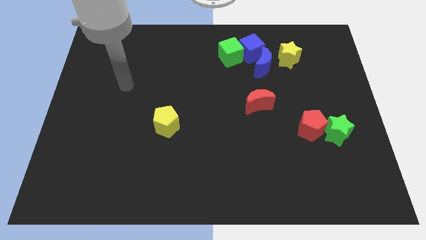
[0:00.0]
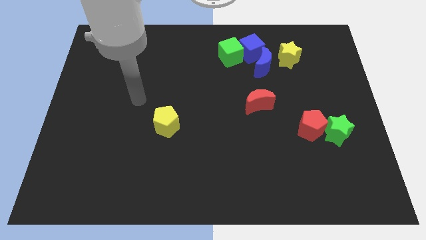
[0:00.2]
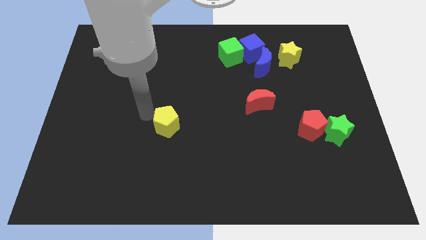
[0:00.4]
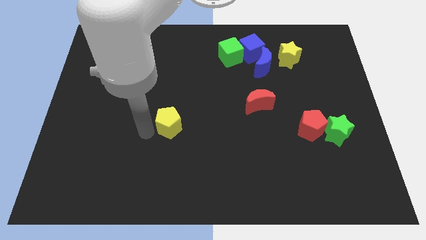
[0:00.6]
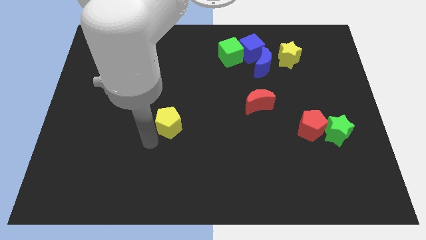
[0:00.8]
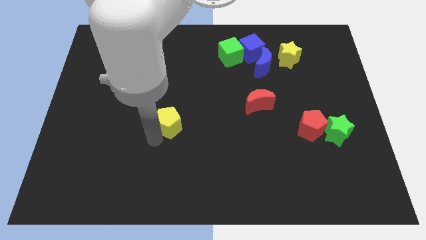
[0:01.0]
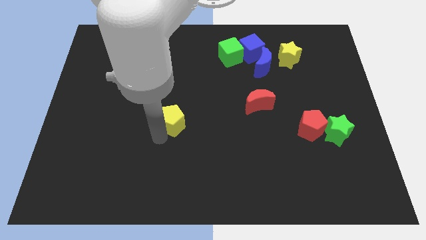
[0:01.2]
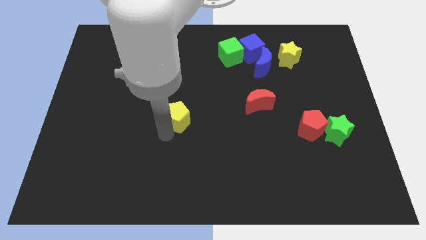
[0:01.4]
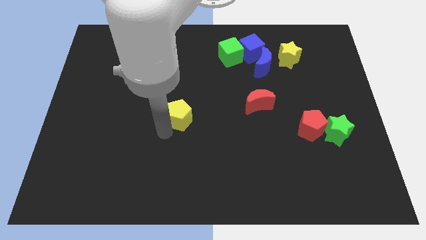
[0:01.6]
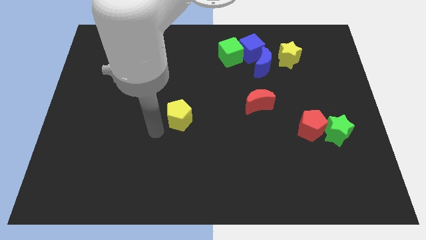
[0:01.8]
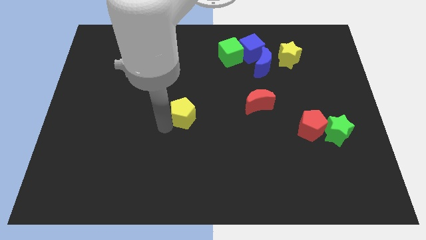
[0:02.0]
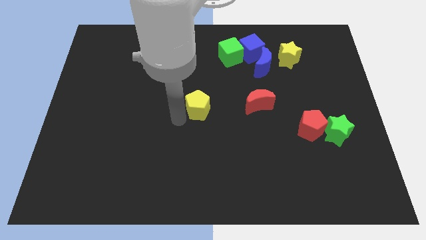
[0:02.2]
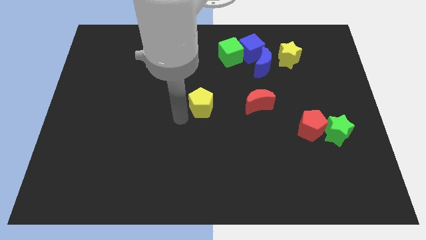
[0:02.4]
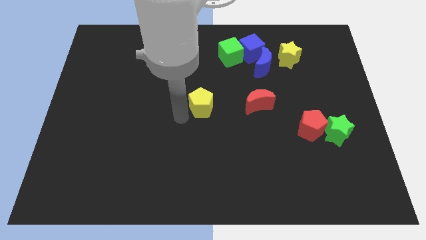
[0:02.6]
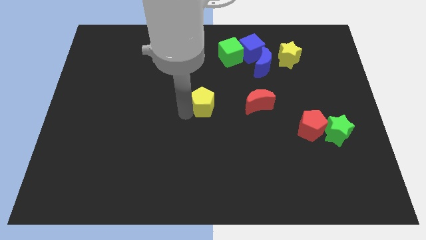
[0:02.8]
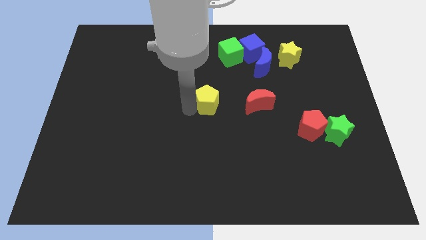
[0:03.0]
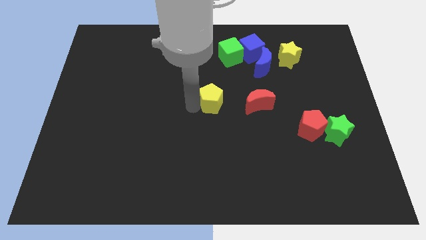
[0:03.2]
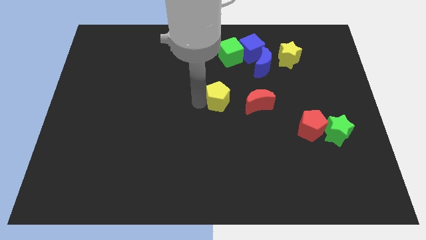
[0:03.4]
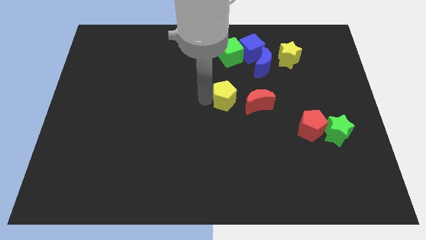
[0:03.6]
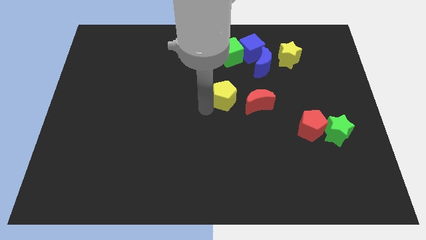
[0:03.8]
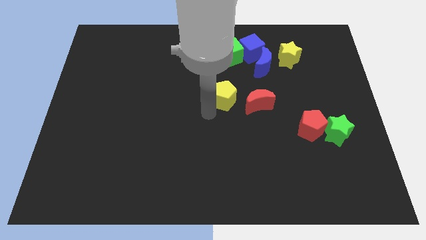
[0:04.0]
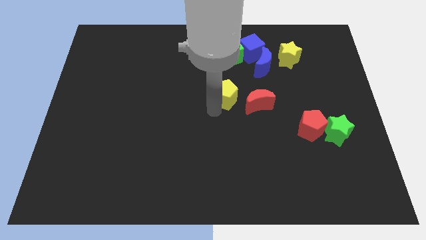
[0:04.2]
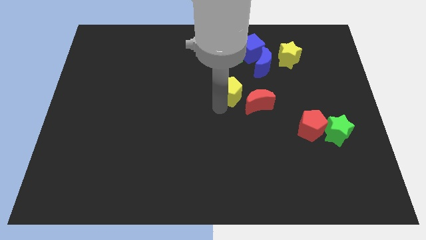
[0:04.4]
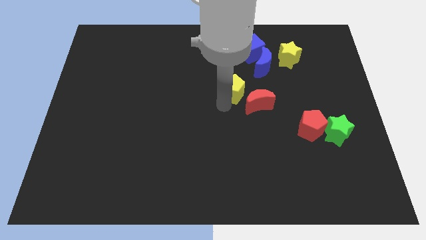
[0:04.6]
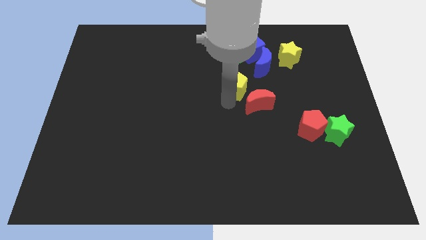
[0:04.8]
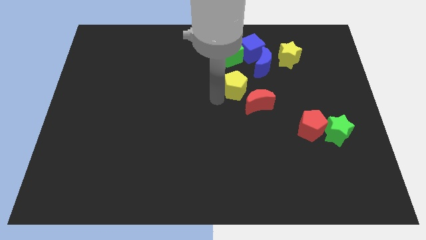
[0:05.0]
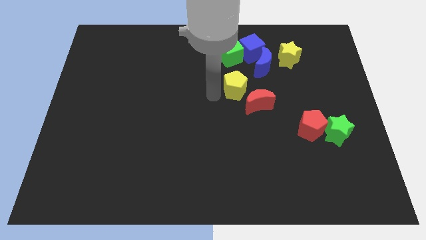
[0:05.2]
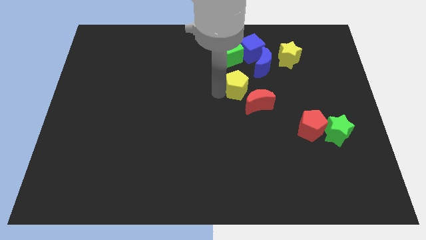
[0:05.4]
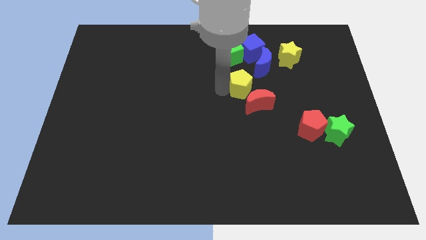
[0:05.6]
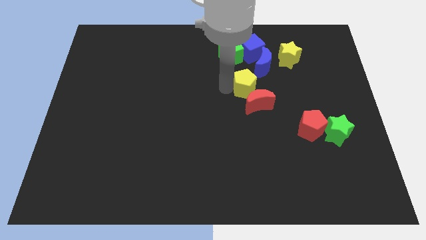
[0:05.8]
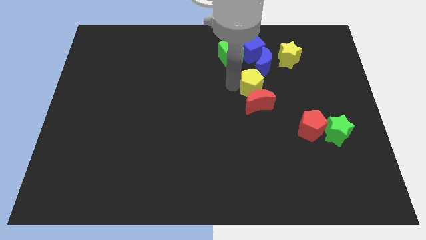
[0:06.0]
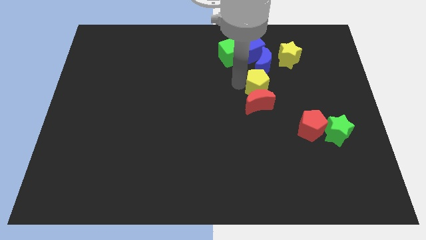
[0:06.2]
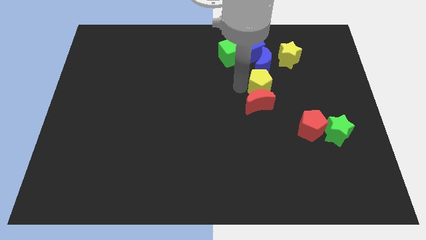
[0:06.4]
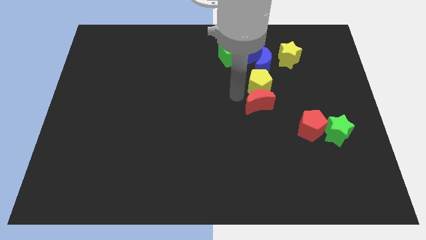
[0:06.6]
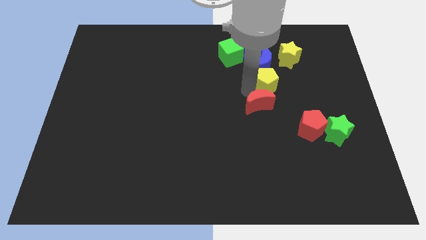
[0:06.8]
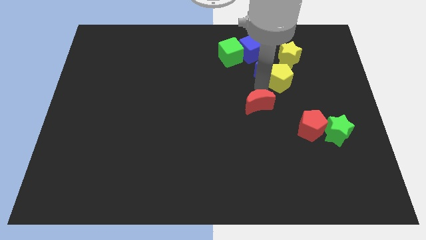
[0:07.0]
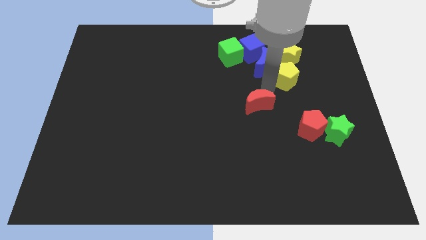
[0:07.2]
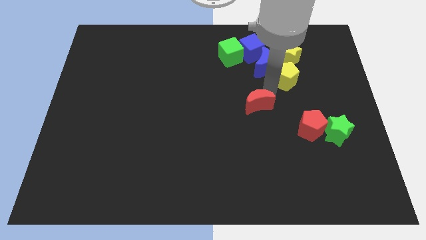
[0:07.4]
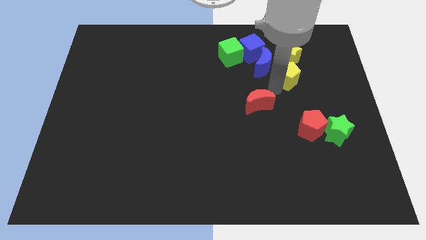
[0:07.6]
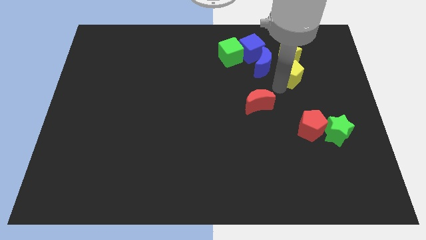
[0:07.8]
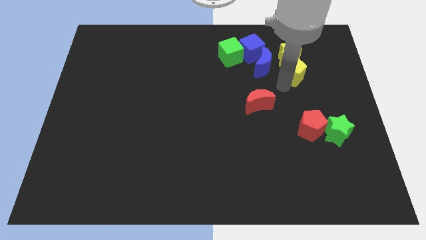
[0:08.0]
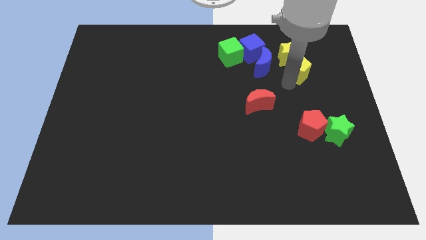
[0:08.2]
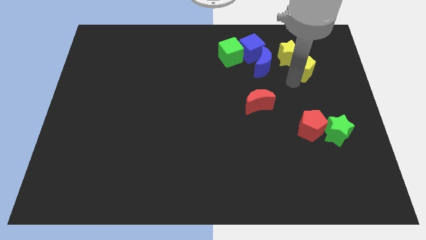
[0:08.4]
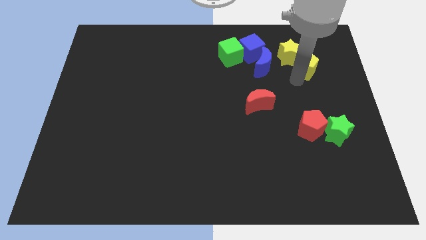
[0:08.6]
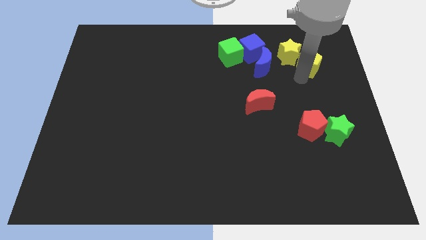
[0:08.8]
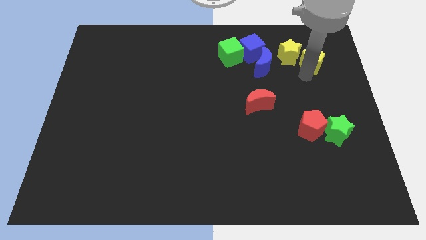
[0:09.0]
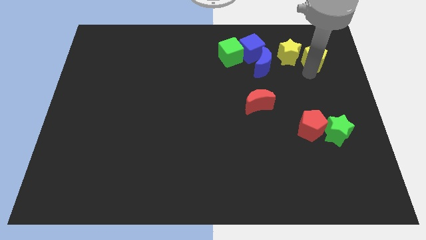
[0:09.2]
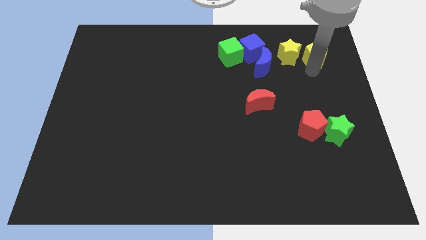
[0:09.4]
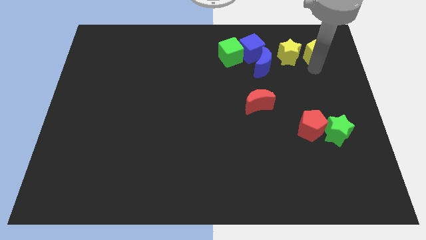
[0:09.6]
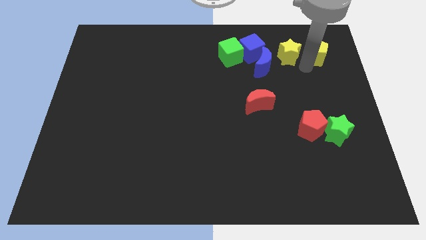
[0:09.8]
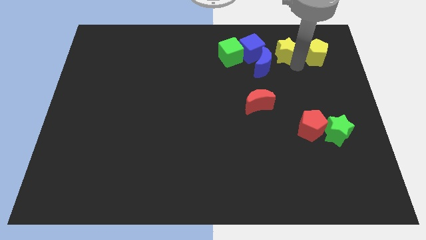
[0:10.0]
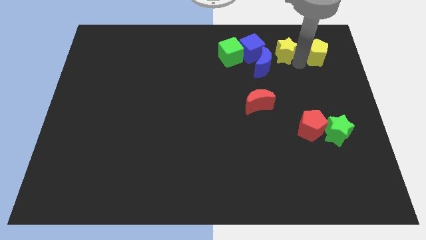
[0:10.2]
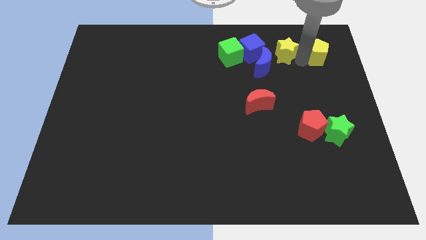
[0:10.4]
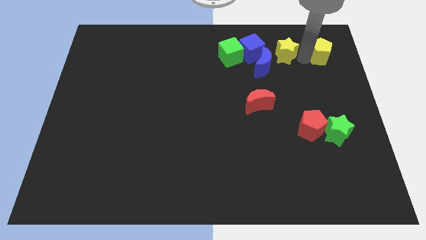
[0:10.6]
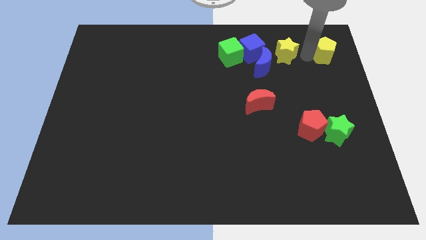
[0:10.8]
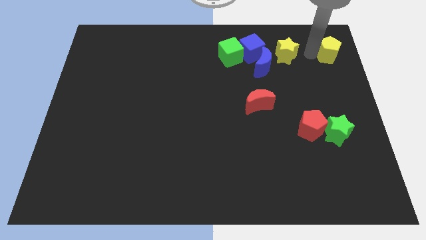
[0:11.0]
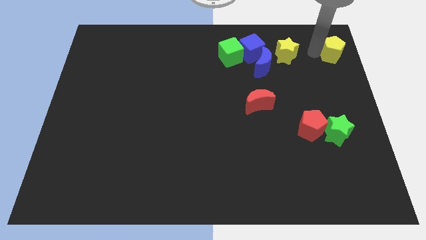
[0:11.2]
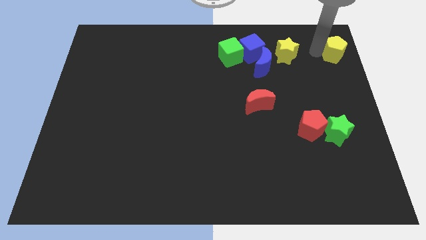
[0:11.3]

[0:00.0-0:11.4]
put the yellow pentagon to the top right
